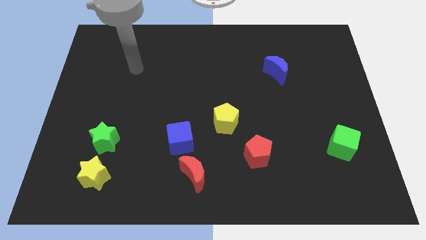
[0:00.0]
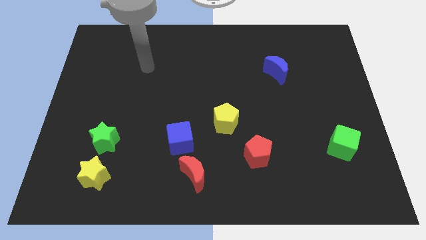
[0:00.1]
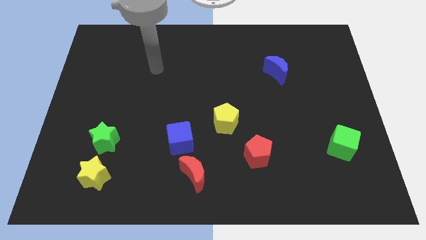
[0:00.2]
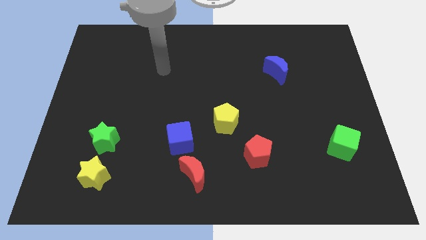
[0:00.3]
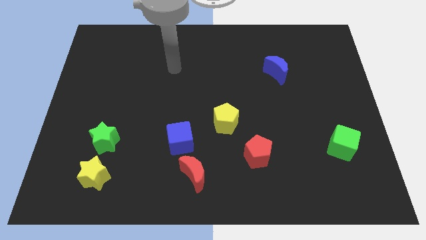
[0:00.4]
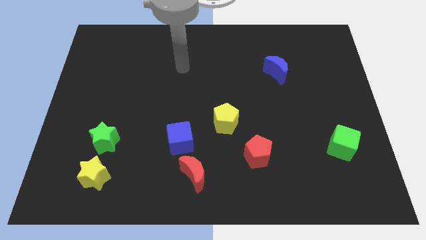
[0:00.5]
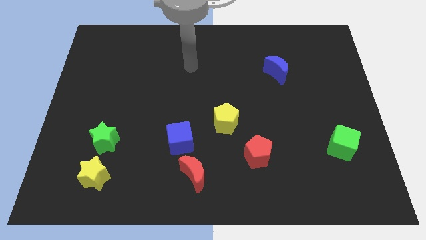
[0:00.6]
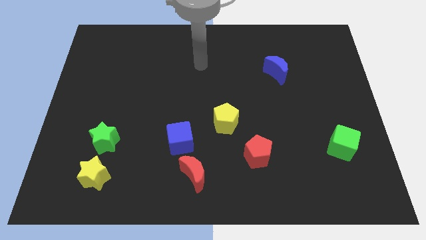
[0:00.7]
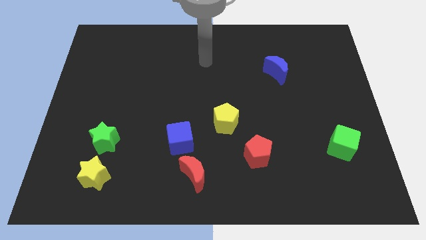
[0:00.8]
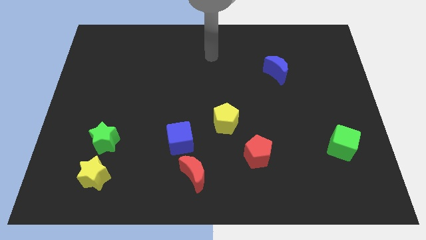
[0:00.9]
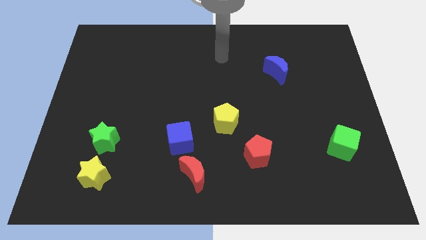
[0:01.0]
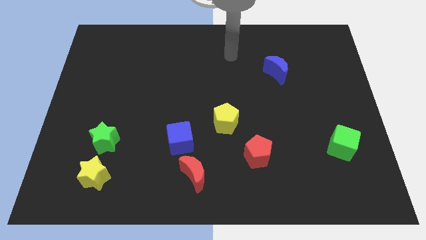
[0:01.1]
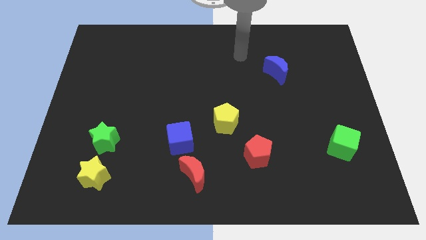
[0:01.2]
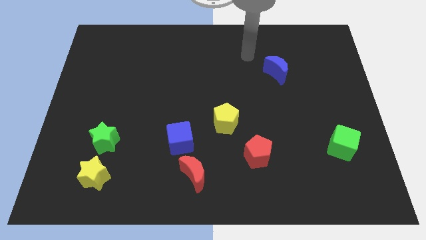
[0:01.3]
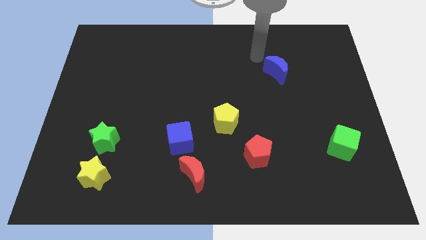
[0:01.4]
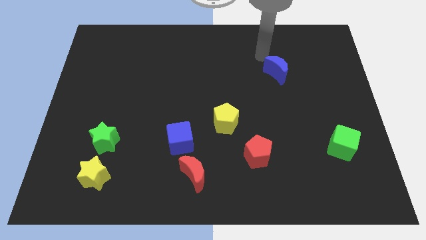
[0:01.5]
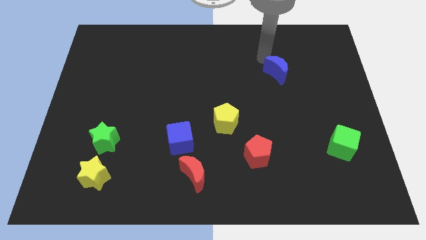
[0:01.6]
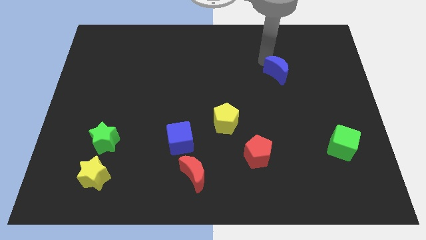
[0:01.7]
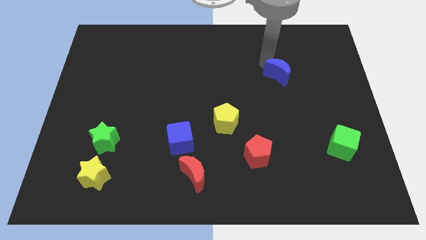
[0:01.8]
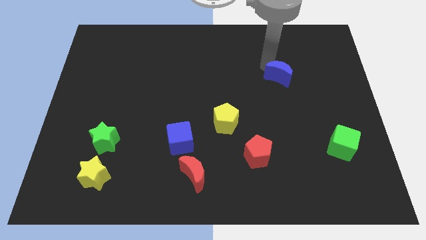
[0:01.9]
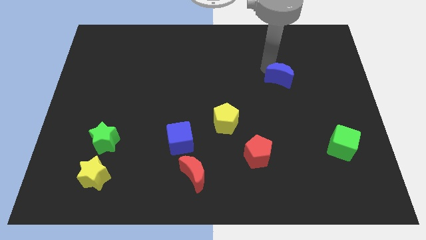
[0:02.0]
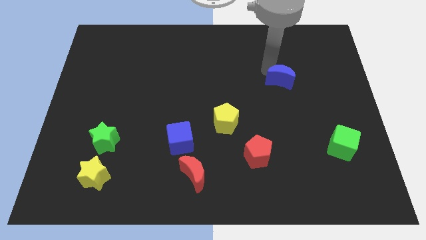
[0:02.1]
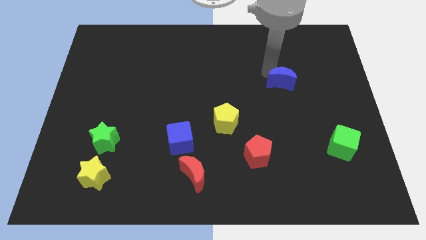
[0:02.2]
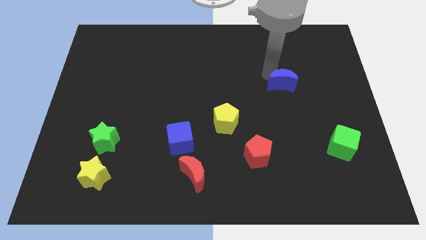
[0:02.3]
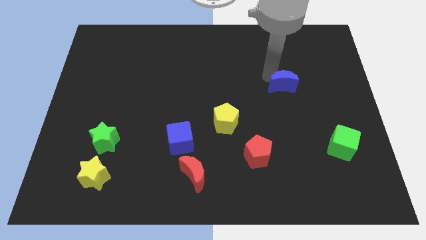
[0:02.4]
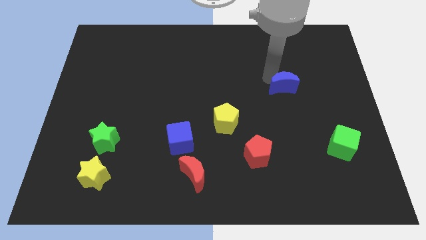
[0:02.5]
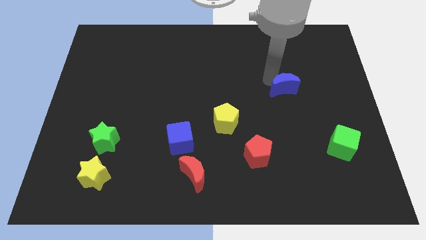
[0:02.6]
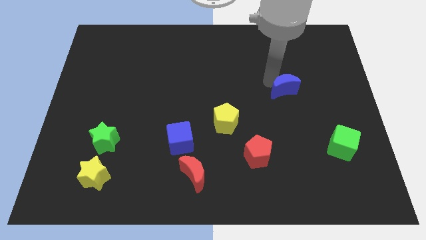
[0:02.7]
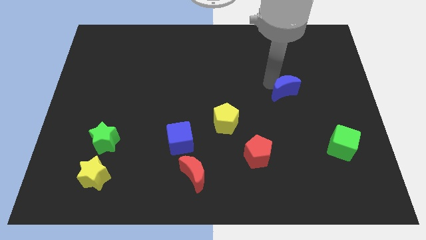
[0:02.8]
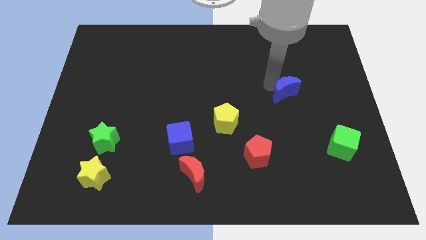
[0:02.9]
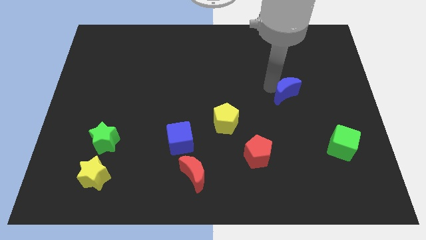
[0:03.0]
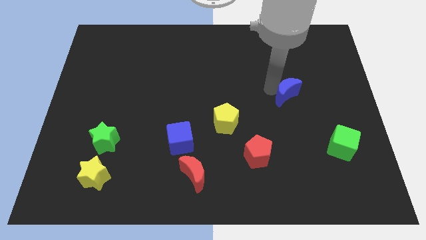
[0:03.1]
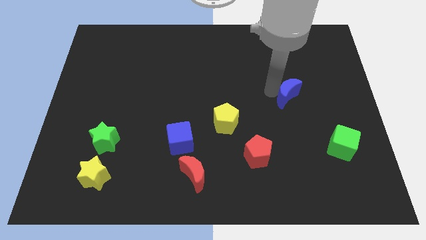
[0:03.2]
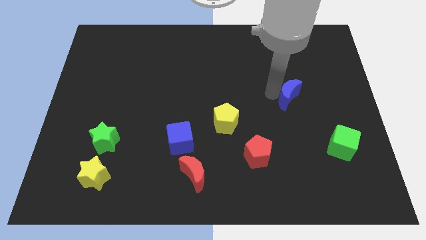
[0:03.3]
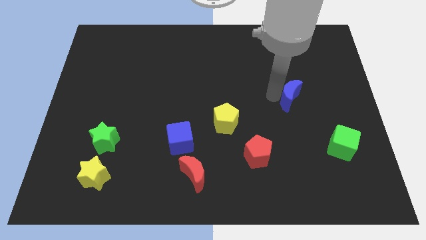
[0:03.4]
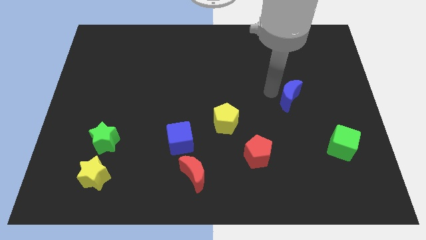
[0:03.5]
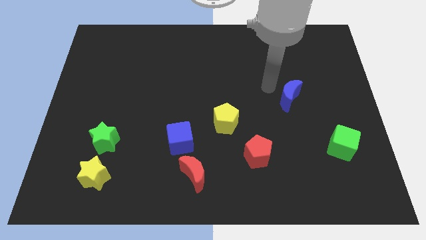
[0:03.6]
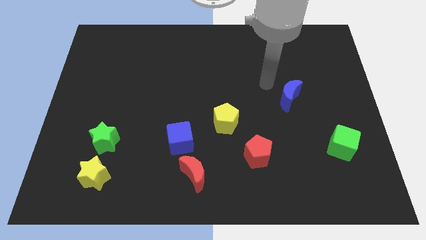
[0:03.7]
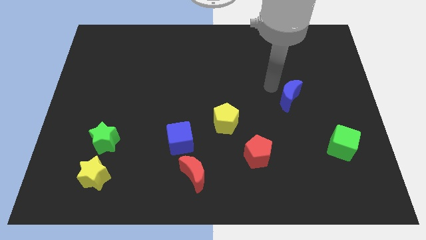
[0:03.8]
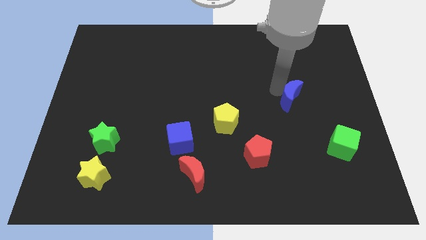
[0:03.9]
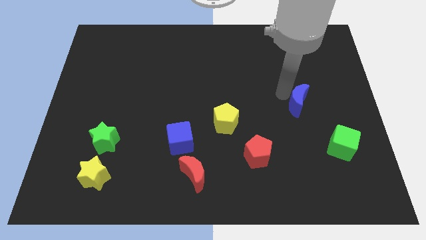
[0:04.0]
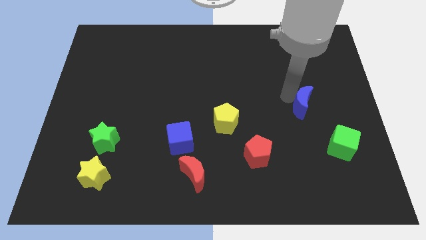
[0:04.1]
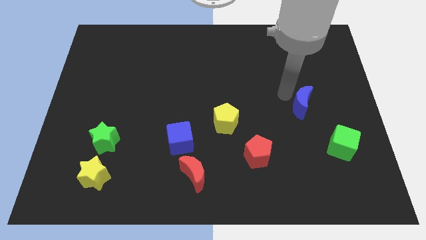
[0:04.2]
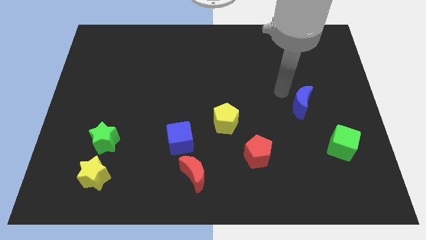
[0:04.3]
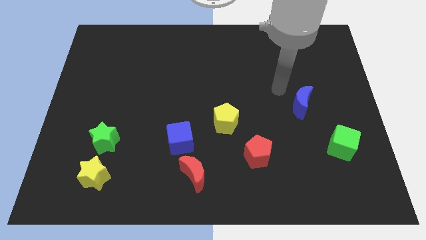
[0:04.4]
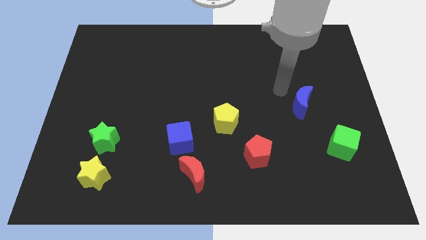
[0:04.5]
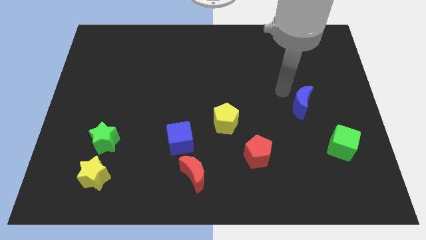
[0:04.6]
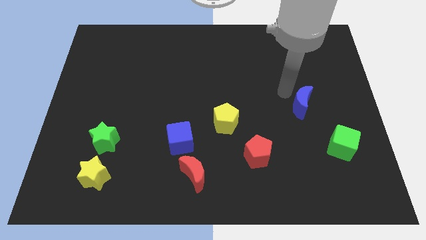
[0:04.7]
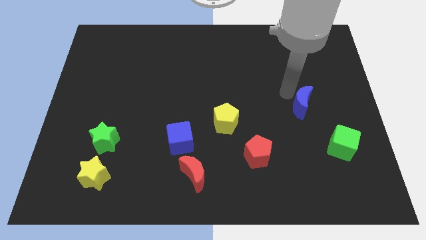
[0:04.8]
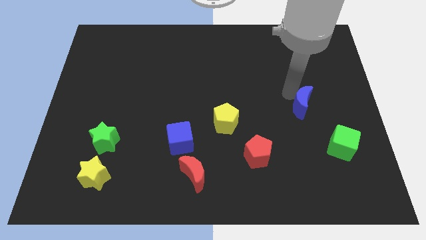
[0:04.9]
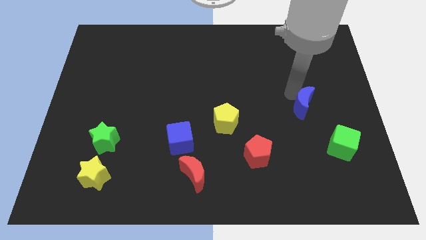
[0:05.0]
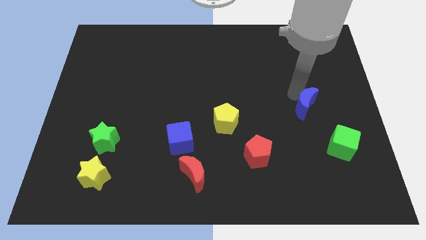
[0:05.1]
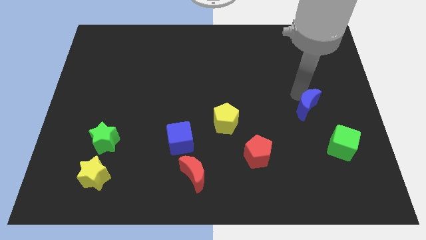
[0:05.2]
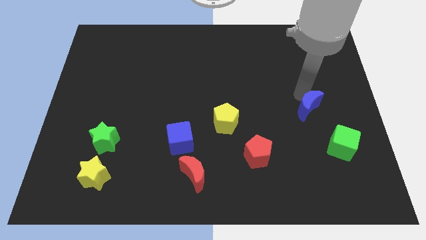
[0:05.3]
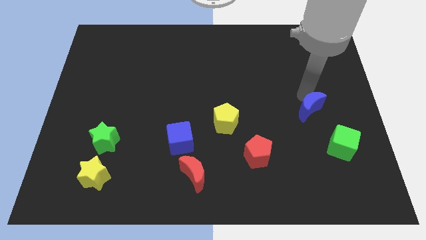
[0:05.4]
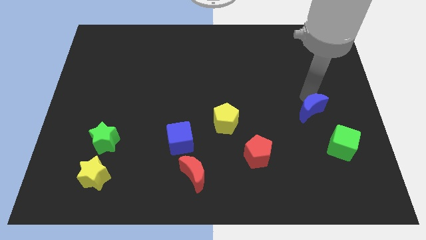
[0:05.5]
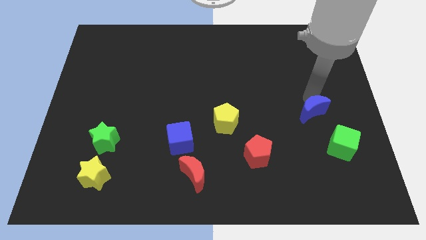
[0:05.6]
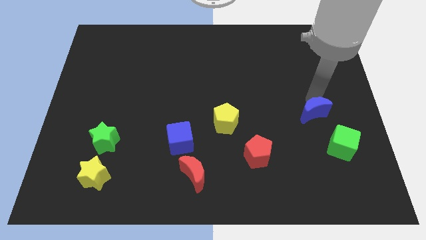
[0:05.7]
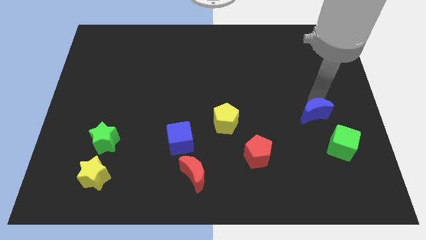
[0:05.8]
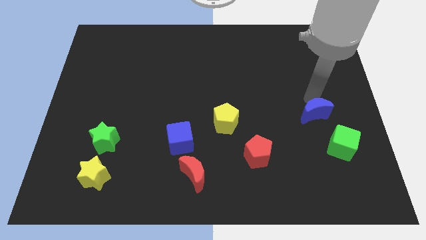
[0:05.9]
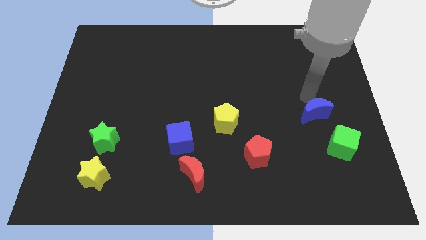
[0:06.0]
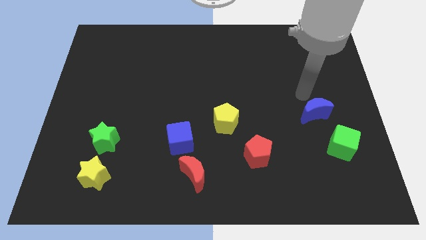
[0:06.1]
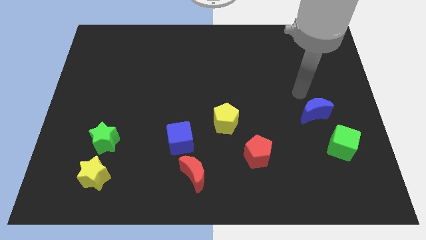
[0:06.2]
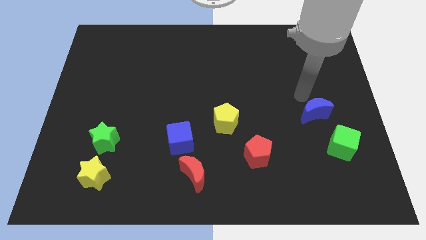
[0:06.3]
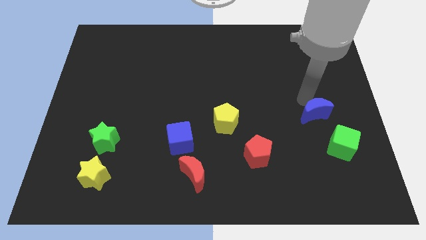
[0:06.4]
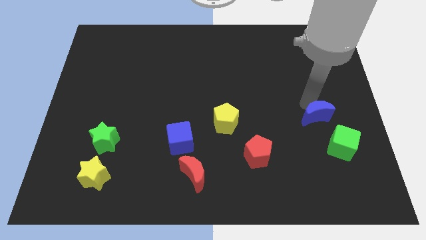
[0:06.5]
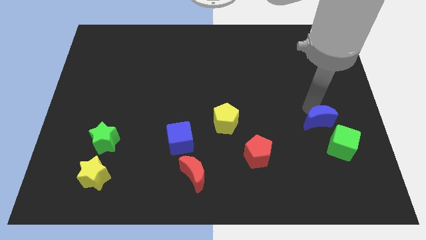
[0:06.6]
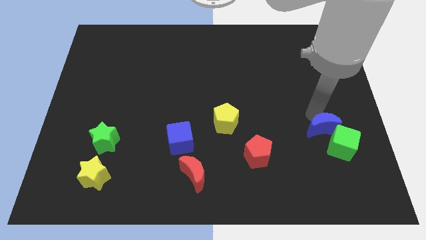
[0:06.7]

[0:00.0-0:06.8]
put the blue moon next to the green cube

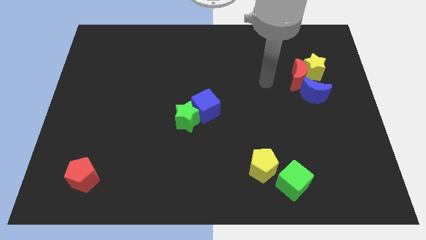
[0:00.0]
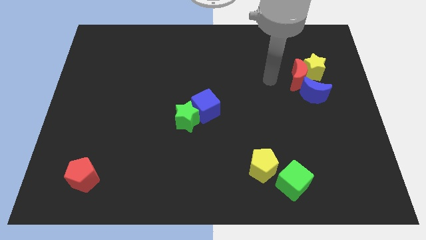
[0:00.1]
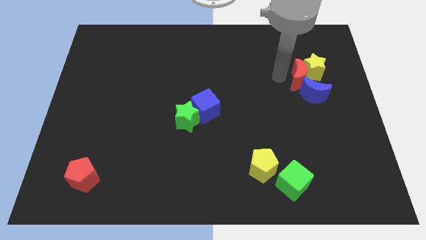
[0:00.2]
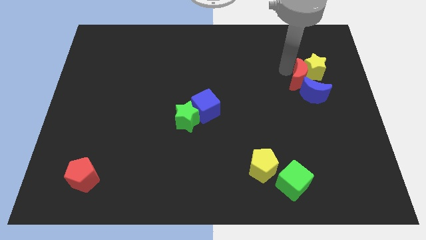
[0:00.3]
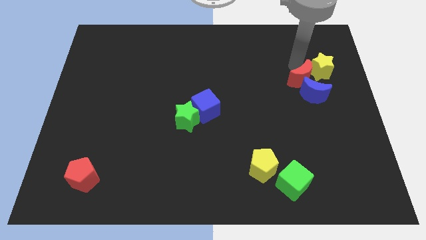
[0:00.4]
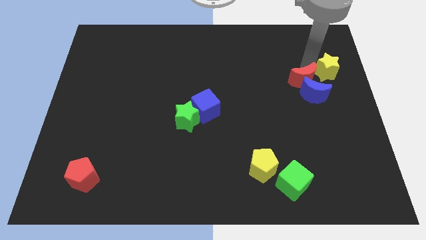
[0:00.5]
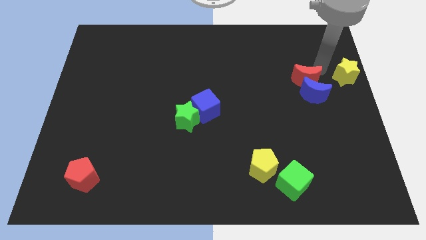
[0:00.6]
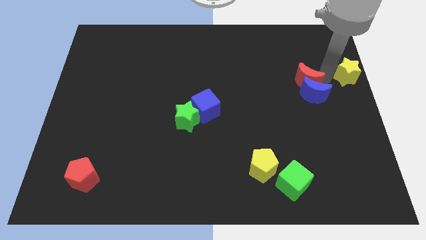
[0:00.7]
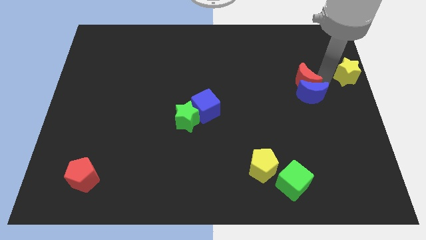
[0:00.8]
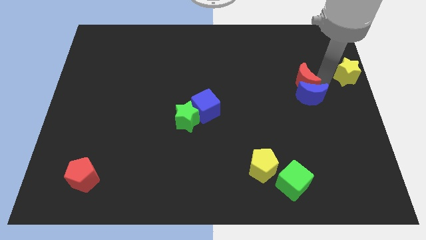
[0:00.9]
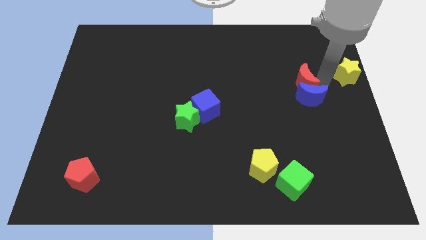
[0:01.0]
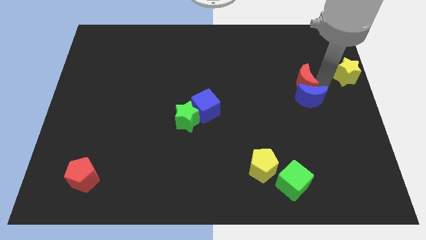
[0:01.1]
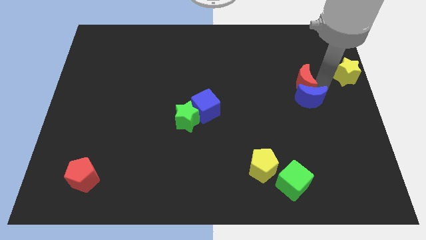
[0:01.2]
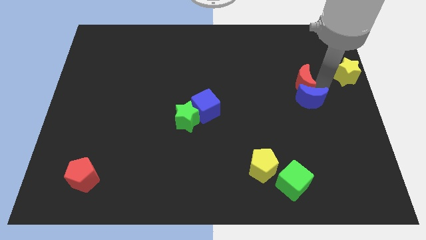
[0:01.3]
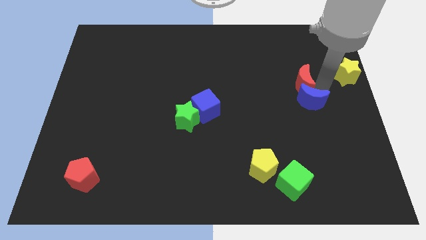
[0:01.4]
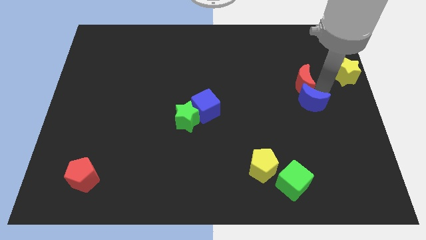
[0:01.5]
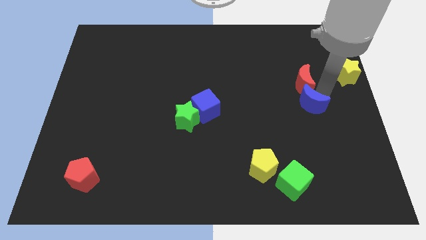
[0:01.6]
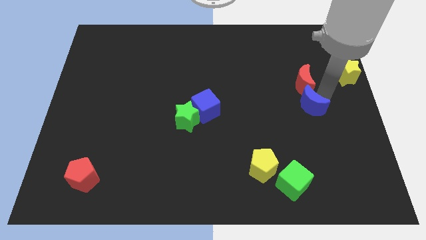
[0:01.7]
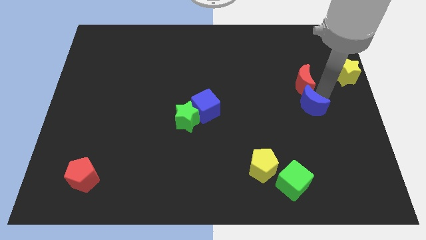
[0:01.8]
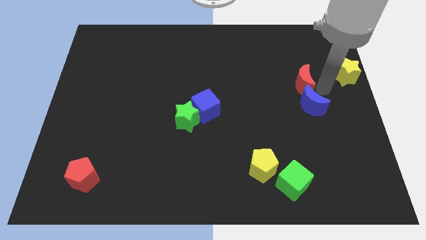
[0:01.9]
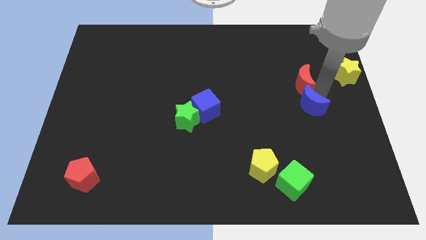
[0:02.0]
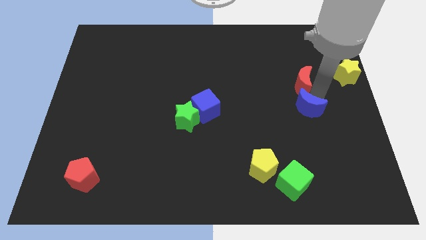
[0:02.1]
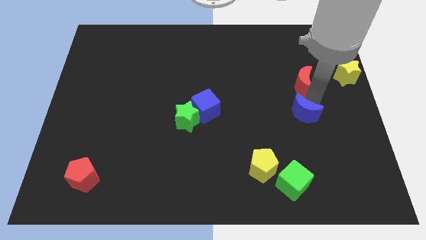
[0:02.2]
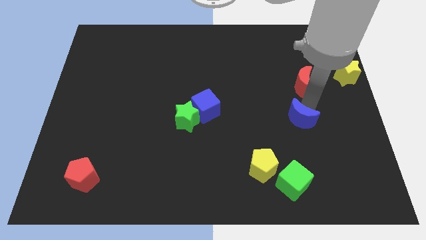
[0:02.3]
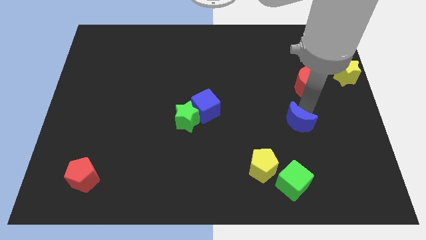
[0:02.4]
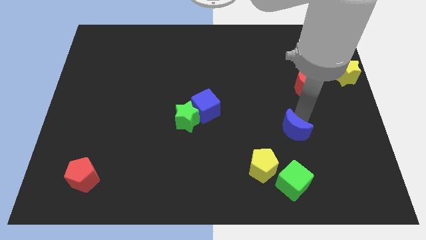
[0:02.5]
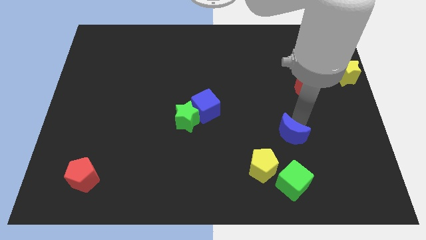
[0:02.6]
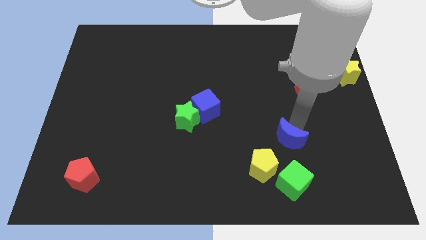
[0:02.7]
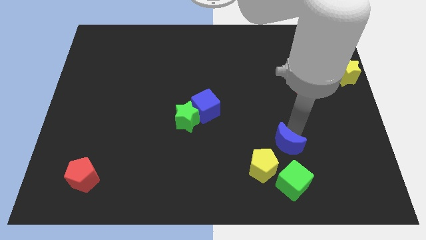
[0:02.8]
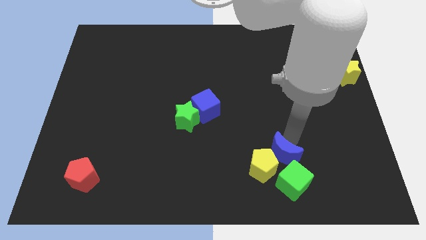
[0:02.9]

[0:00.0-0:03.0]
put the blue moon to the yellow pentagon
